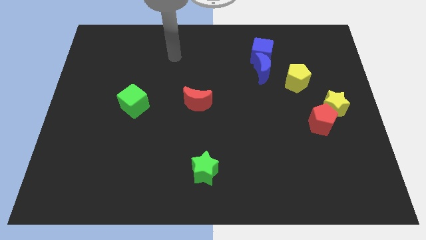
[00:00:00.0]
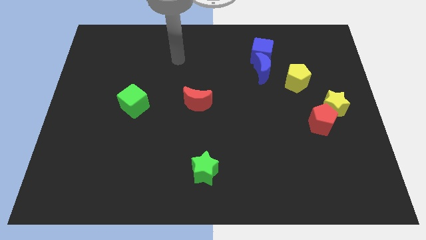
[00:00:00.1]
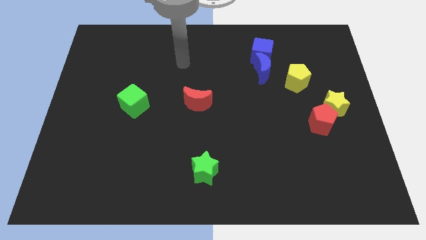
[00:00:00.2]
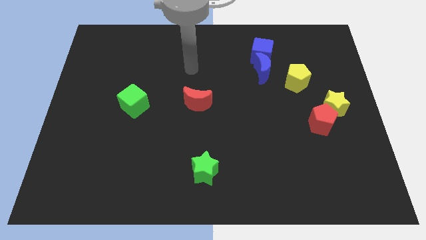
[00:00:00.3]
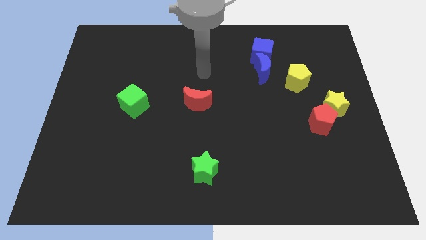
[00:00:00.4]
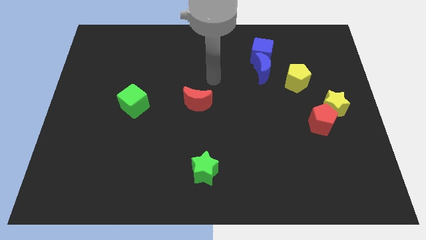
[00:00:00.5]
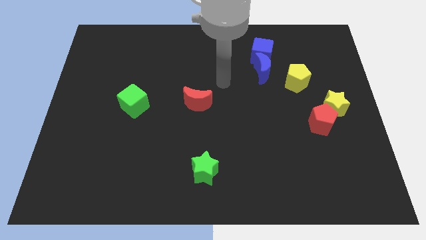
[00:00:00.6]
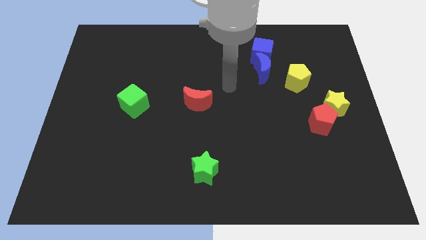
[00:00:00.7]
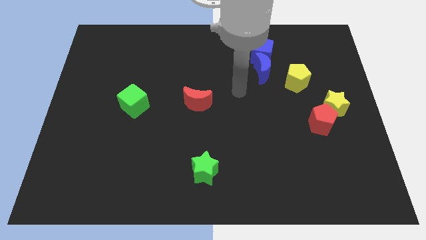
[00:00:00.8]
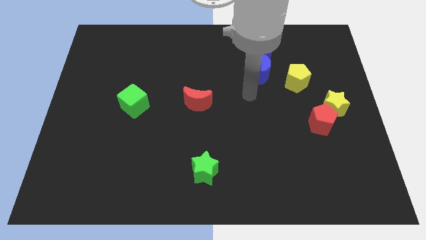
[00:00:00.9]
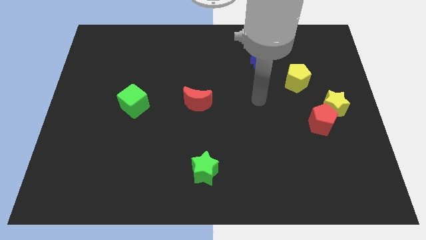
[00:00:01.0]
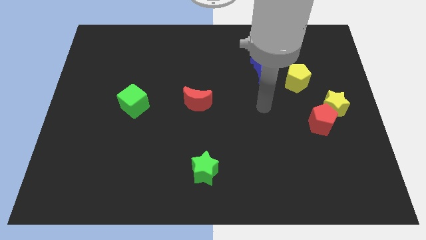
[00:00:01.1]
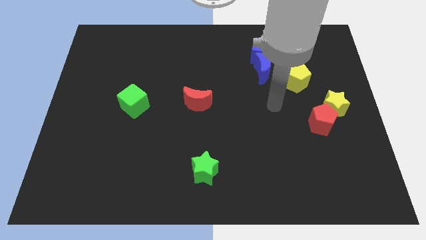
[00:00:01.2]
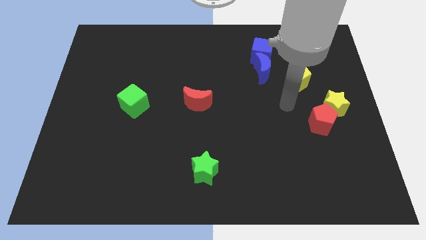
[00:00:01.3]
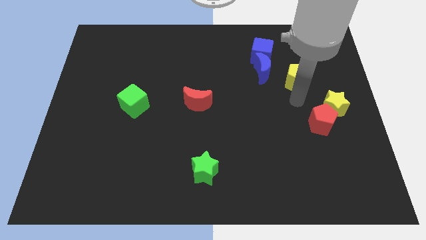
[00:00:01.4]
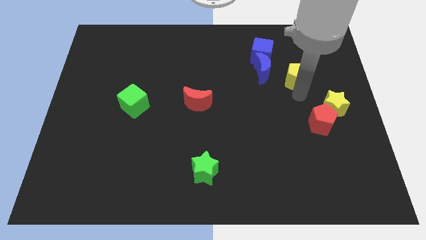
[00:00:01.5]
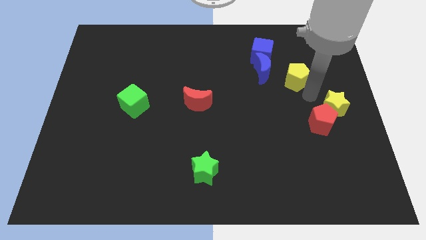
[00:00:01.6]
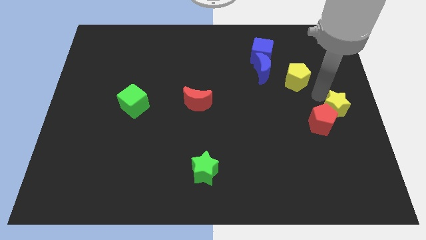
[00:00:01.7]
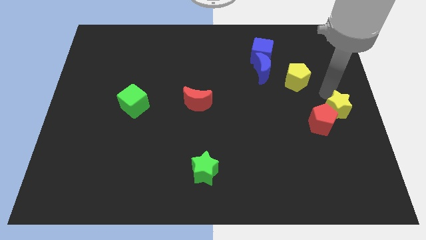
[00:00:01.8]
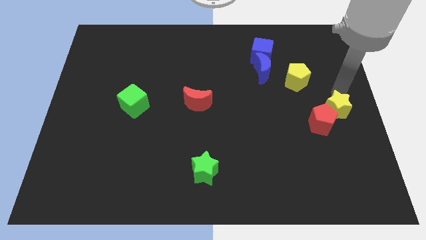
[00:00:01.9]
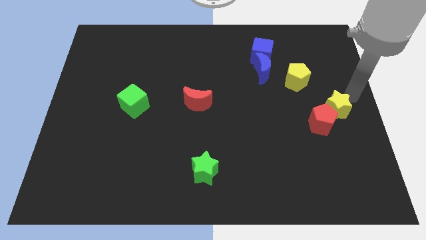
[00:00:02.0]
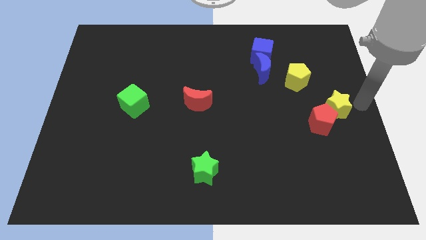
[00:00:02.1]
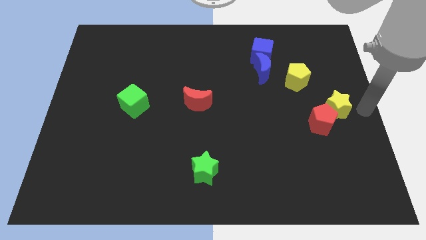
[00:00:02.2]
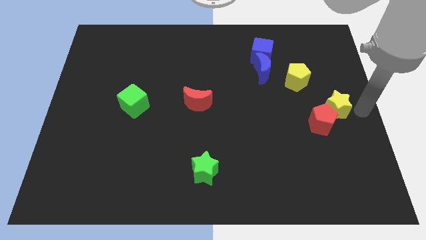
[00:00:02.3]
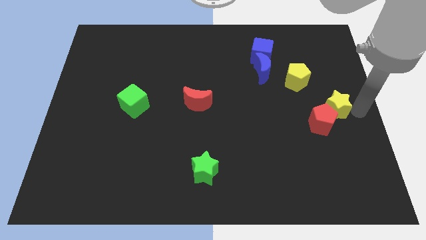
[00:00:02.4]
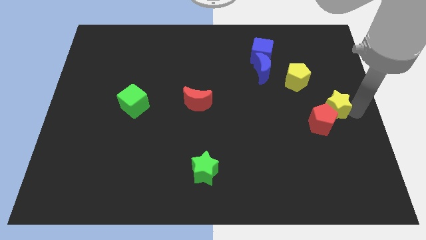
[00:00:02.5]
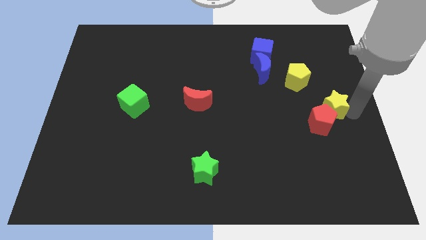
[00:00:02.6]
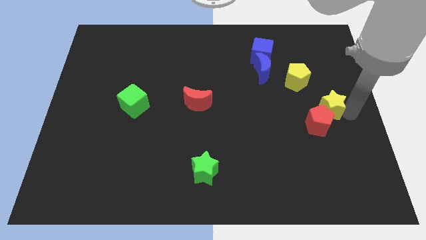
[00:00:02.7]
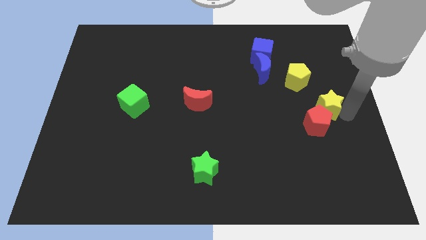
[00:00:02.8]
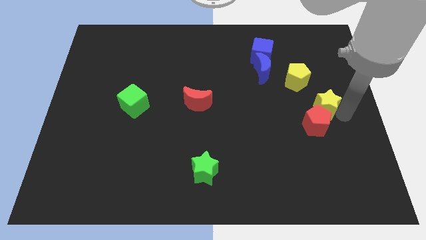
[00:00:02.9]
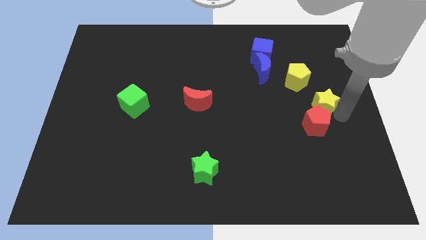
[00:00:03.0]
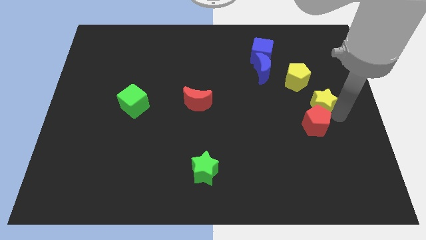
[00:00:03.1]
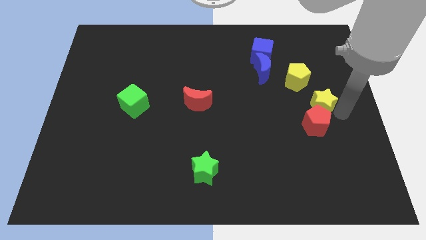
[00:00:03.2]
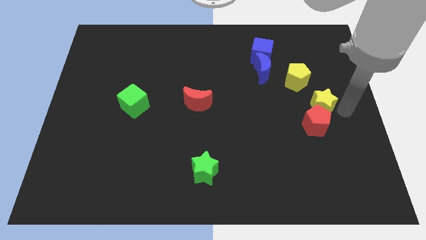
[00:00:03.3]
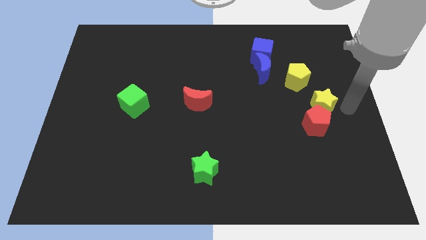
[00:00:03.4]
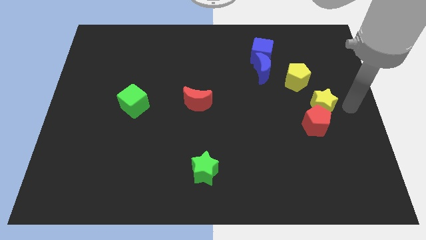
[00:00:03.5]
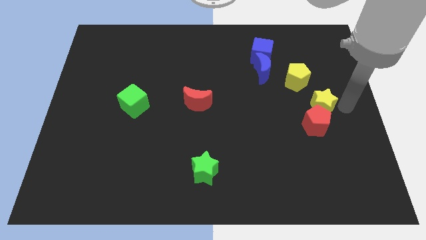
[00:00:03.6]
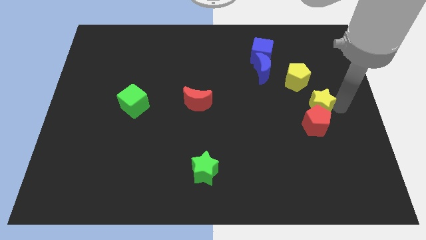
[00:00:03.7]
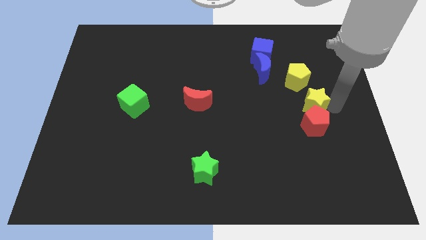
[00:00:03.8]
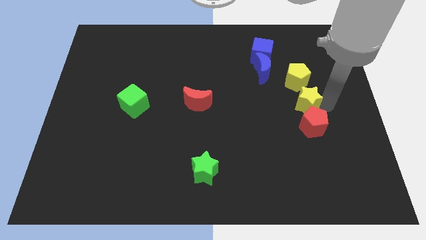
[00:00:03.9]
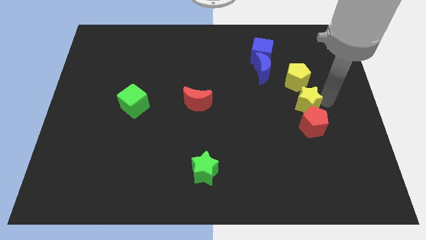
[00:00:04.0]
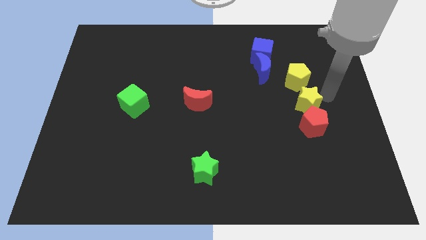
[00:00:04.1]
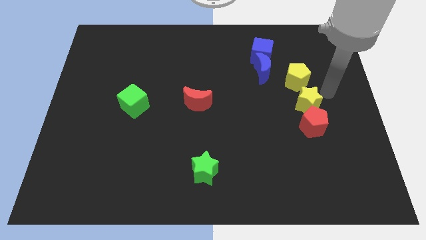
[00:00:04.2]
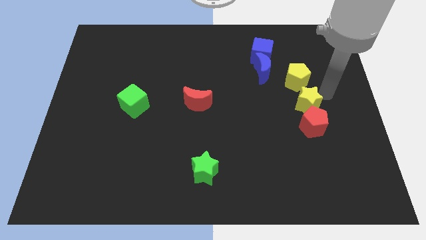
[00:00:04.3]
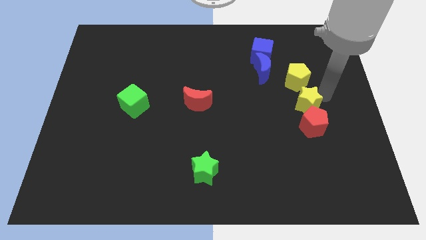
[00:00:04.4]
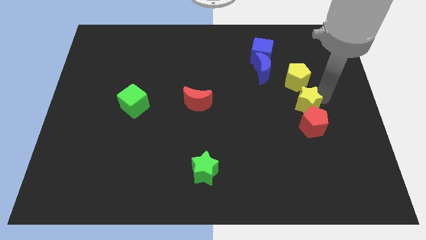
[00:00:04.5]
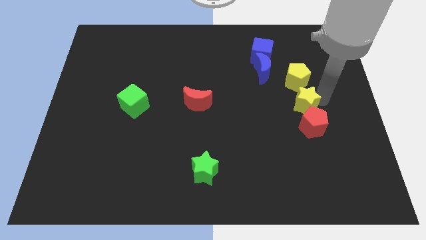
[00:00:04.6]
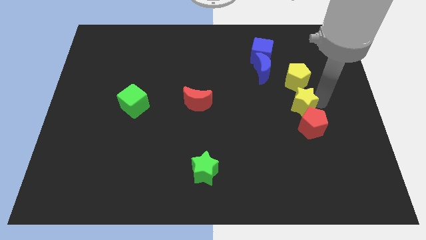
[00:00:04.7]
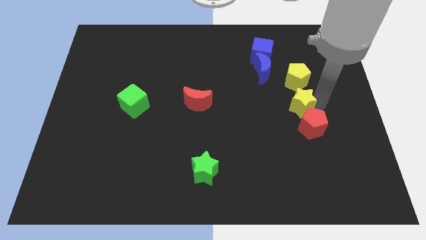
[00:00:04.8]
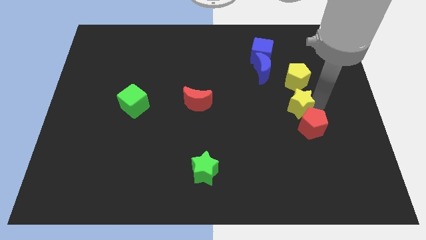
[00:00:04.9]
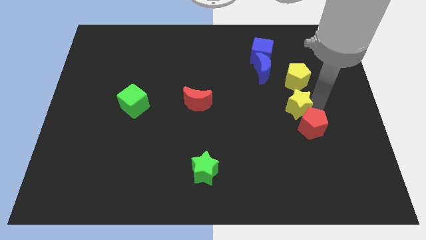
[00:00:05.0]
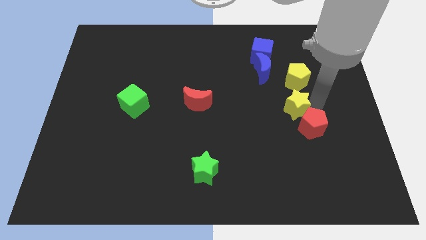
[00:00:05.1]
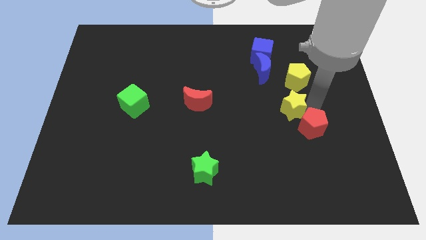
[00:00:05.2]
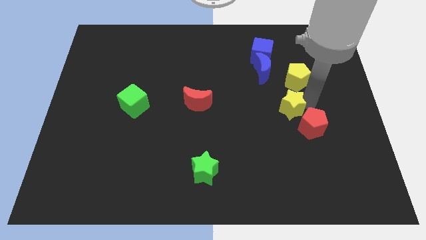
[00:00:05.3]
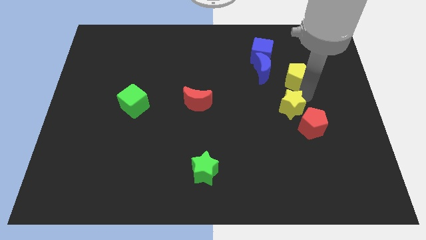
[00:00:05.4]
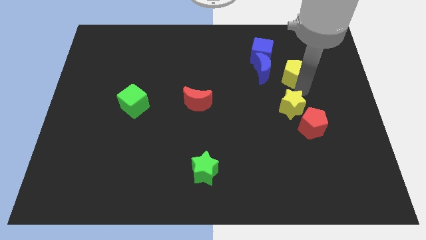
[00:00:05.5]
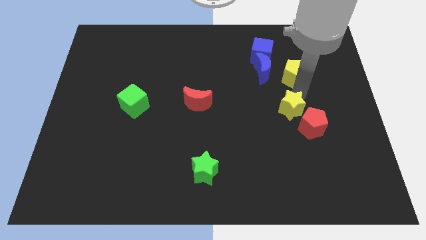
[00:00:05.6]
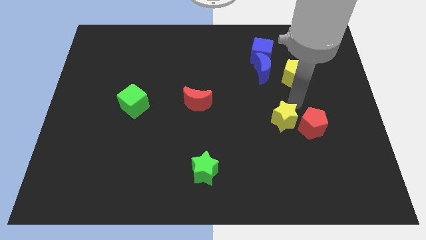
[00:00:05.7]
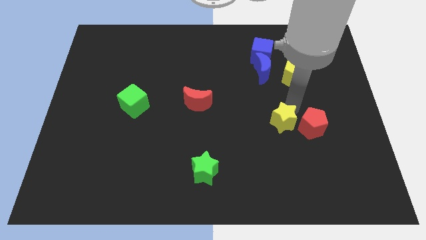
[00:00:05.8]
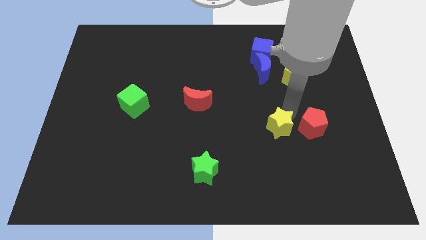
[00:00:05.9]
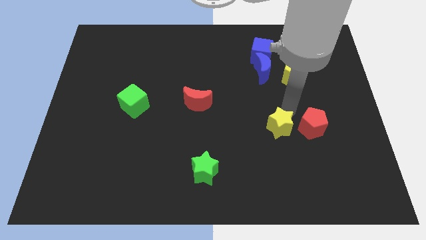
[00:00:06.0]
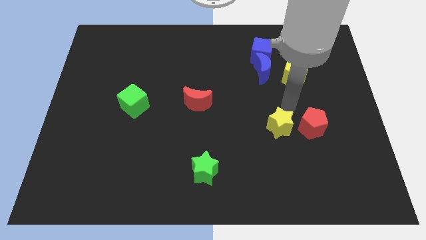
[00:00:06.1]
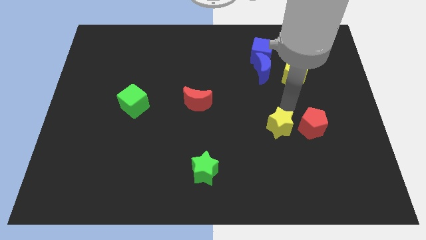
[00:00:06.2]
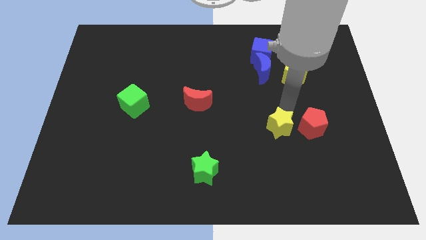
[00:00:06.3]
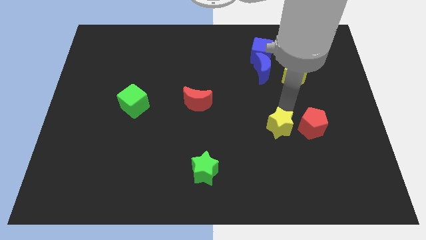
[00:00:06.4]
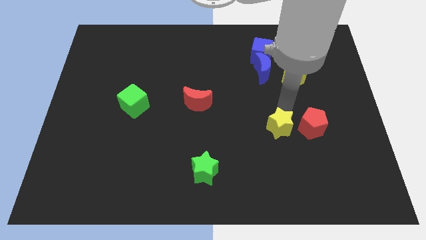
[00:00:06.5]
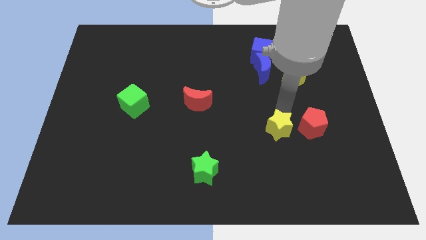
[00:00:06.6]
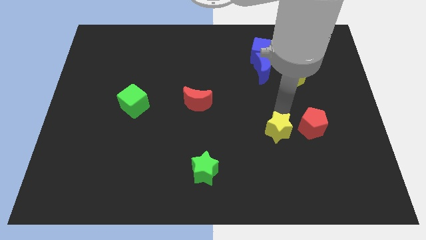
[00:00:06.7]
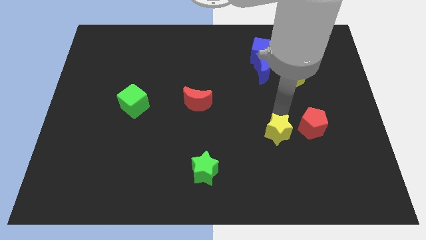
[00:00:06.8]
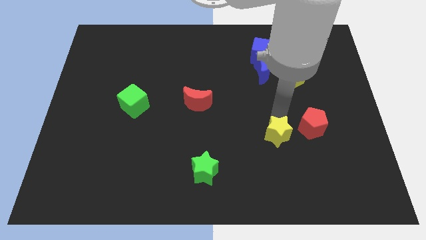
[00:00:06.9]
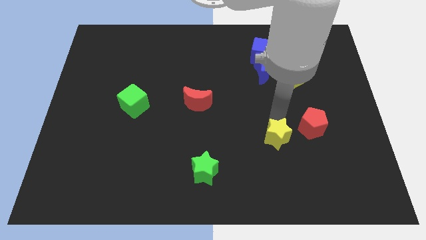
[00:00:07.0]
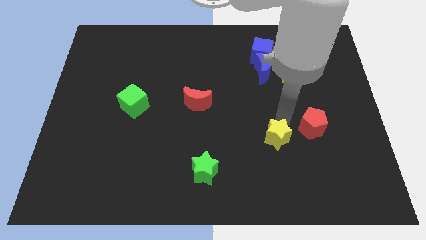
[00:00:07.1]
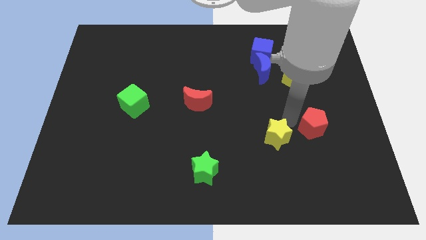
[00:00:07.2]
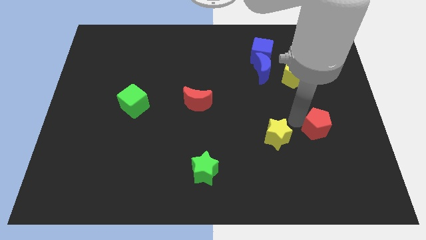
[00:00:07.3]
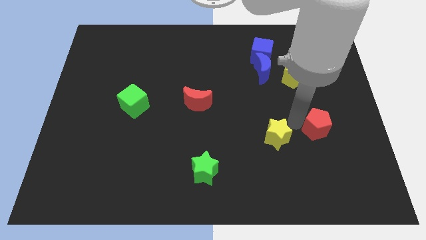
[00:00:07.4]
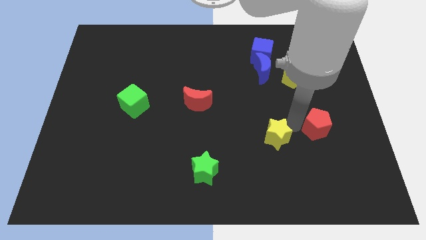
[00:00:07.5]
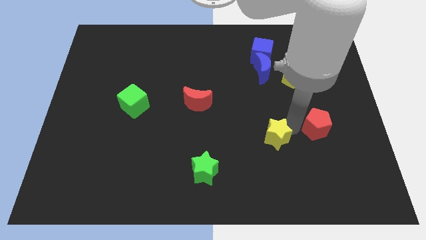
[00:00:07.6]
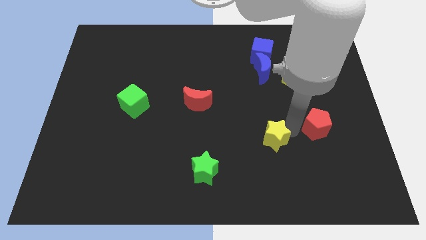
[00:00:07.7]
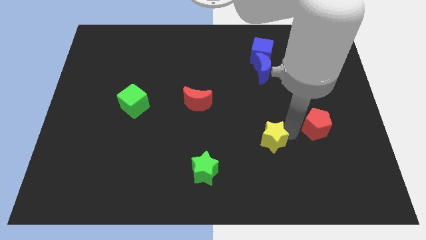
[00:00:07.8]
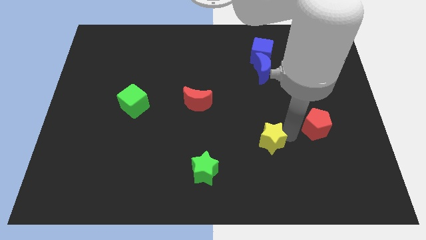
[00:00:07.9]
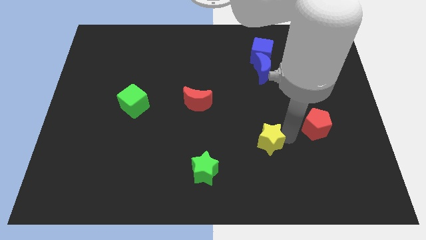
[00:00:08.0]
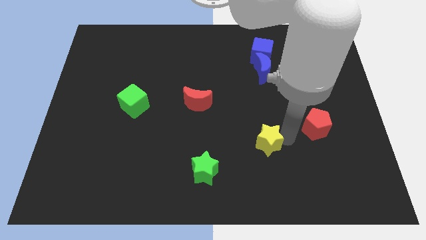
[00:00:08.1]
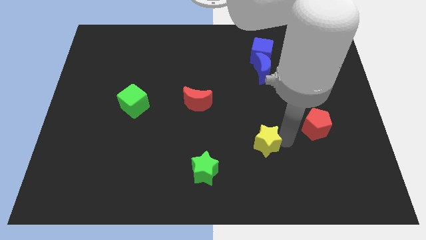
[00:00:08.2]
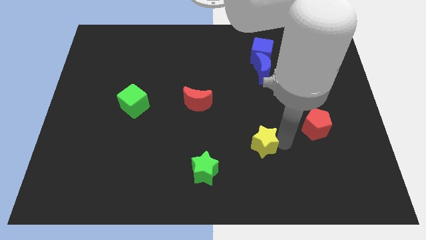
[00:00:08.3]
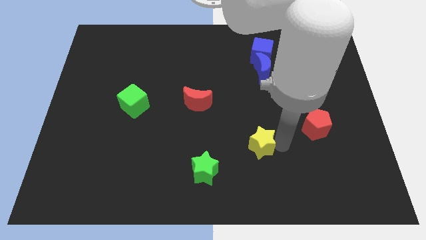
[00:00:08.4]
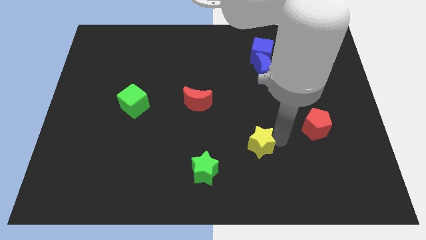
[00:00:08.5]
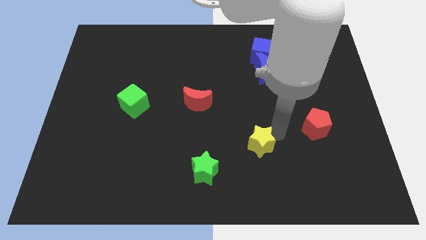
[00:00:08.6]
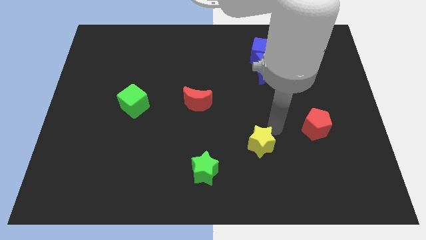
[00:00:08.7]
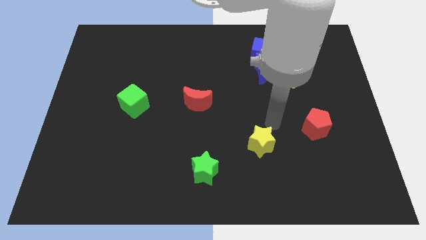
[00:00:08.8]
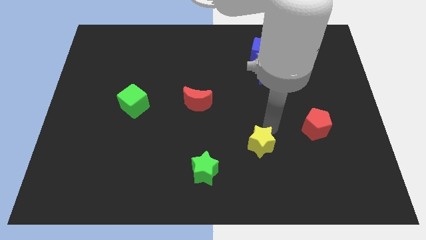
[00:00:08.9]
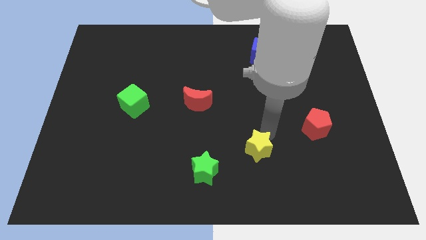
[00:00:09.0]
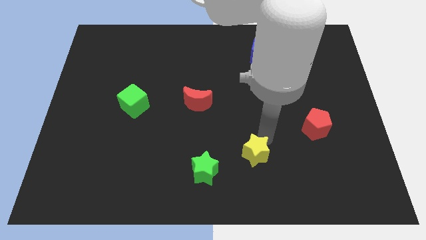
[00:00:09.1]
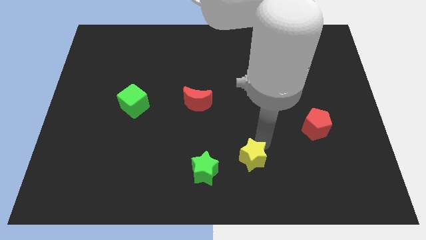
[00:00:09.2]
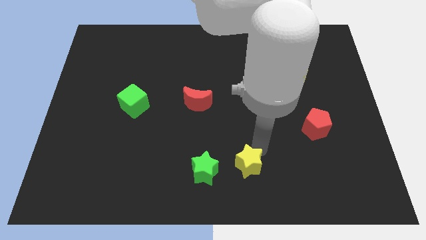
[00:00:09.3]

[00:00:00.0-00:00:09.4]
slide the yellow star to the bottom
